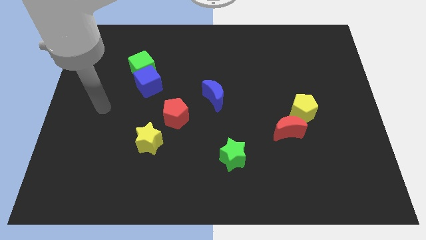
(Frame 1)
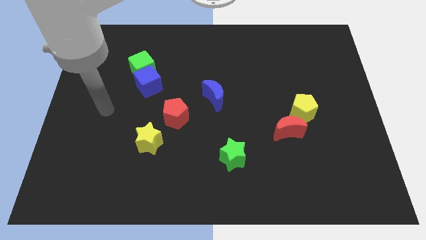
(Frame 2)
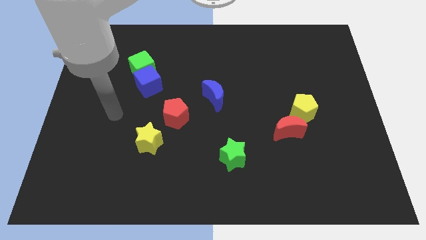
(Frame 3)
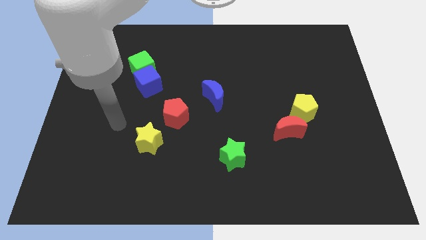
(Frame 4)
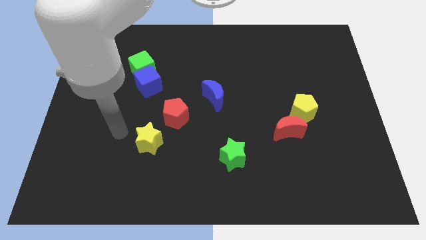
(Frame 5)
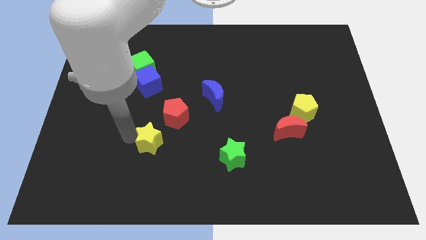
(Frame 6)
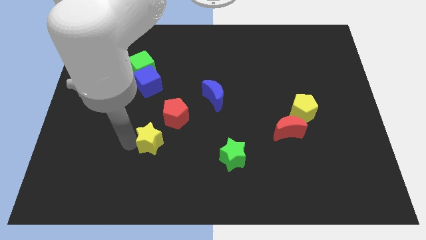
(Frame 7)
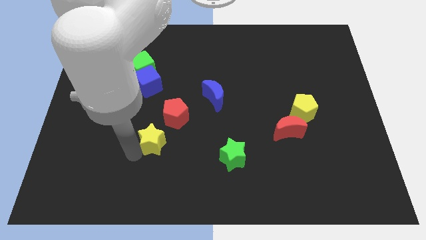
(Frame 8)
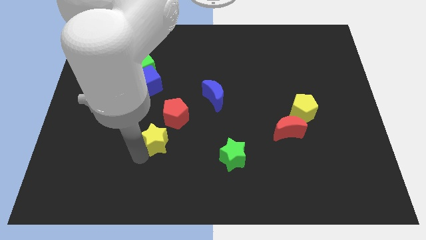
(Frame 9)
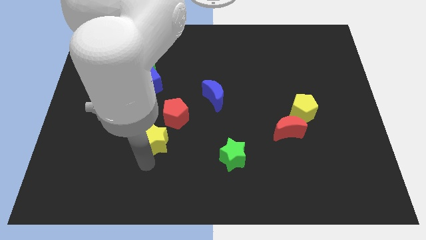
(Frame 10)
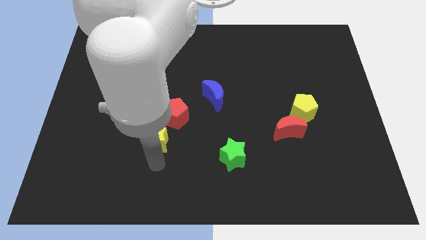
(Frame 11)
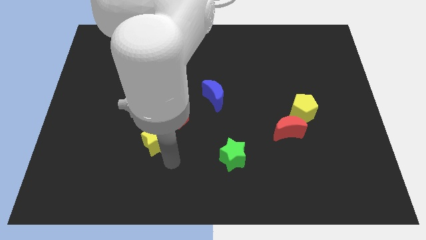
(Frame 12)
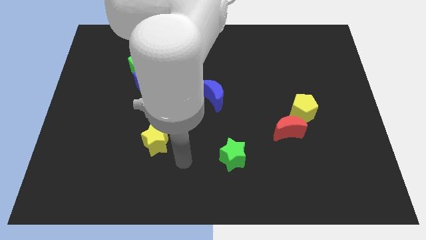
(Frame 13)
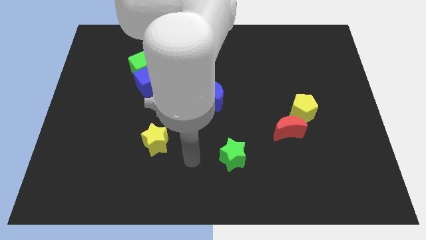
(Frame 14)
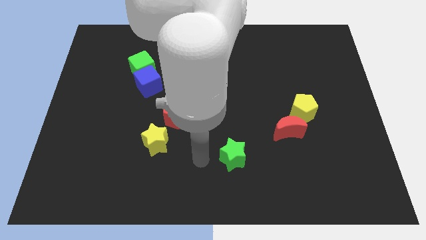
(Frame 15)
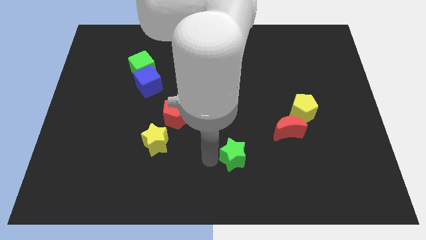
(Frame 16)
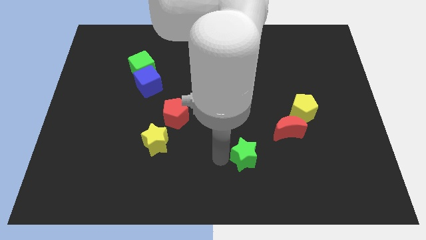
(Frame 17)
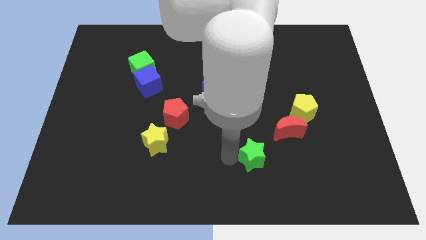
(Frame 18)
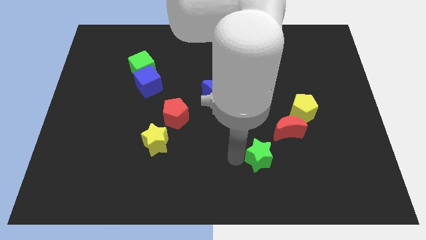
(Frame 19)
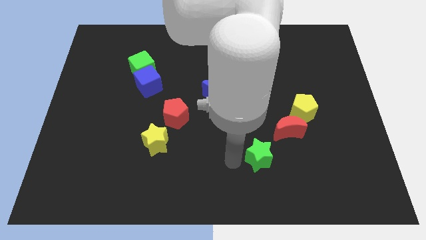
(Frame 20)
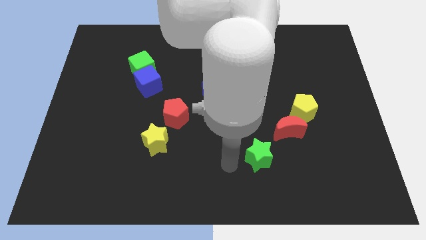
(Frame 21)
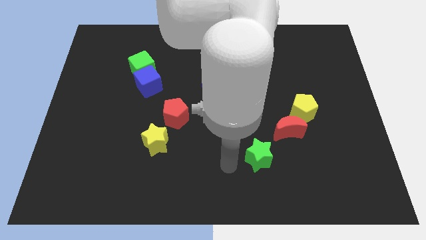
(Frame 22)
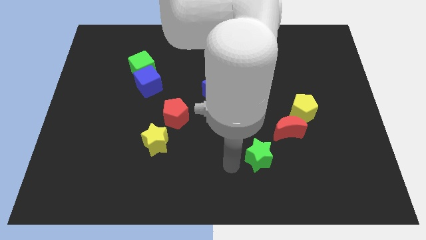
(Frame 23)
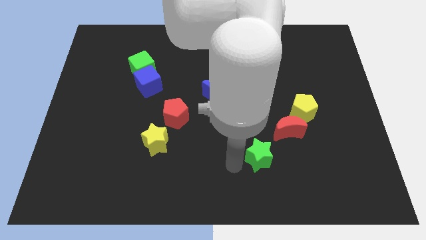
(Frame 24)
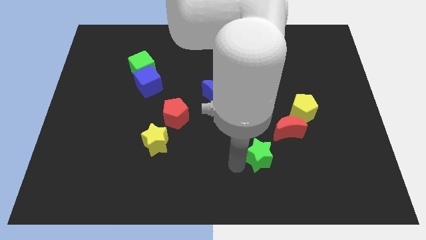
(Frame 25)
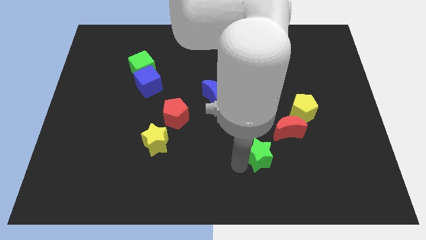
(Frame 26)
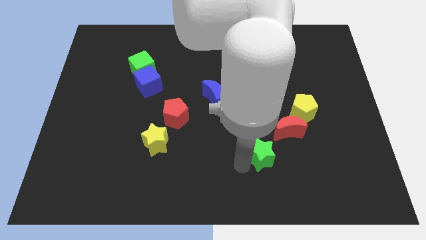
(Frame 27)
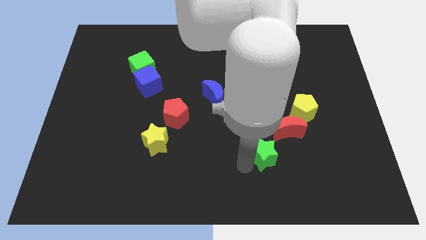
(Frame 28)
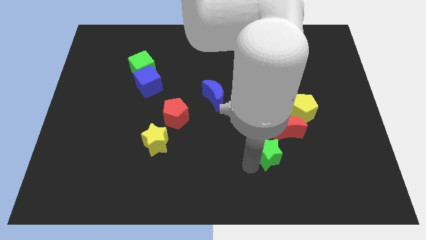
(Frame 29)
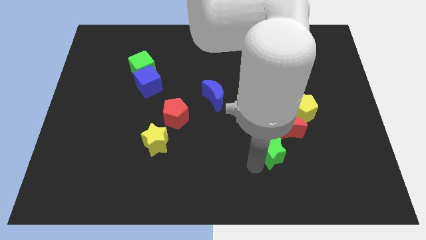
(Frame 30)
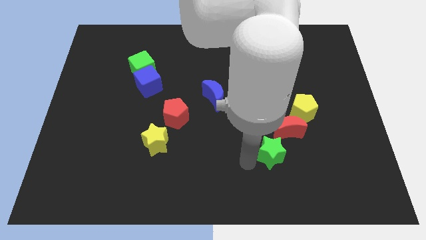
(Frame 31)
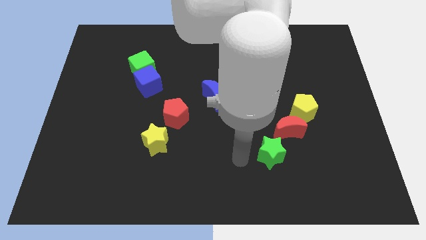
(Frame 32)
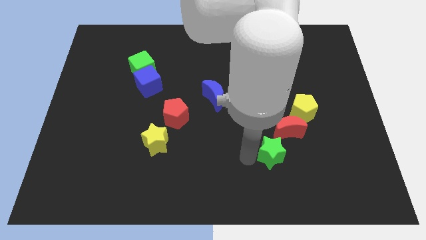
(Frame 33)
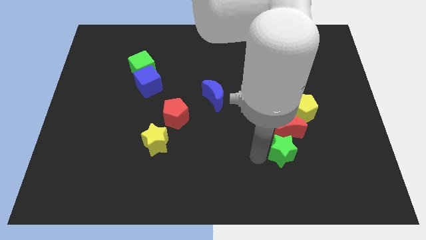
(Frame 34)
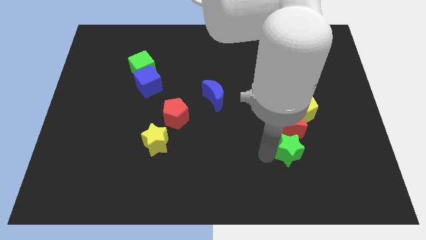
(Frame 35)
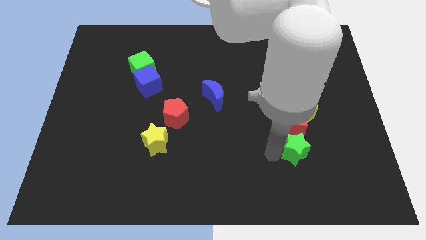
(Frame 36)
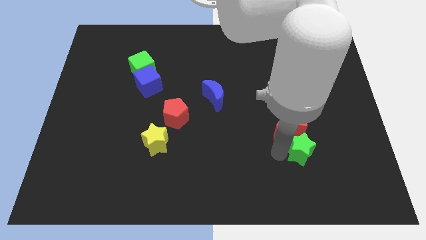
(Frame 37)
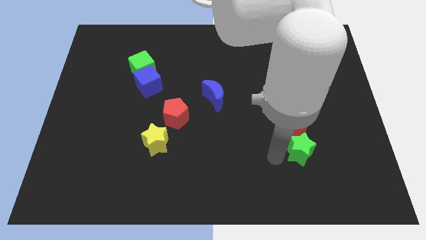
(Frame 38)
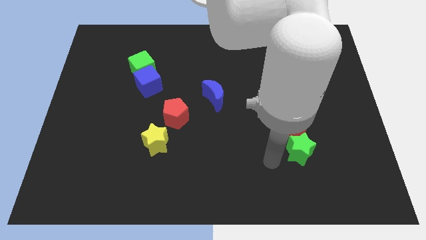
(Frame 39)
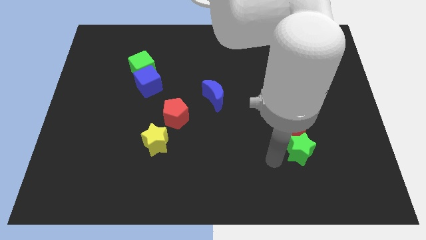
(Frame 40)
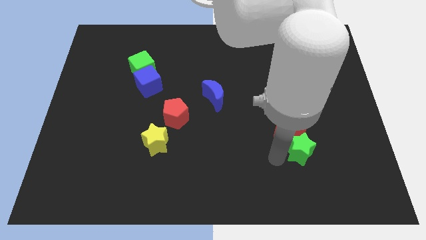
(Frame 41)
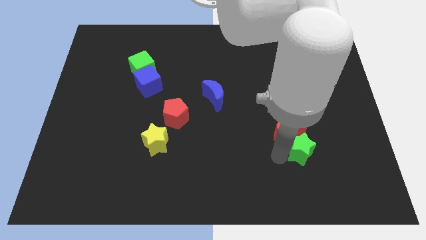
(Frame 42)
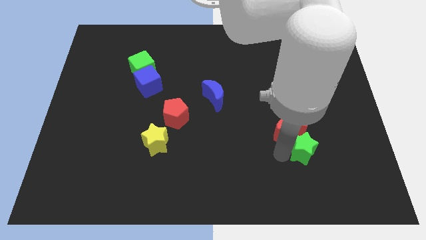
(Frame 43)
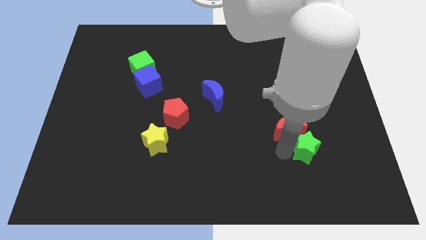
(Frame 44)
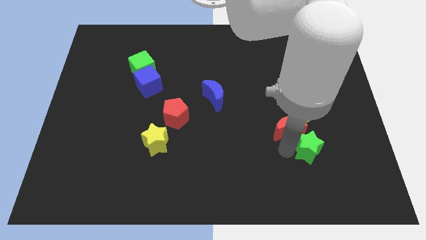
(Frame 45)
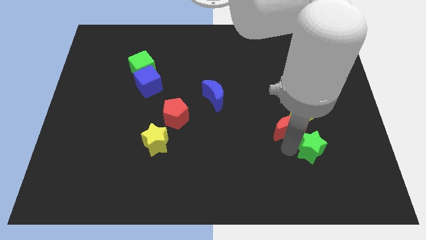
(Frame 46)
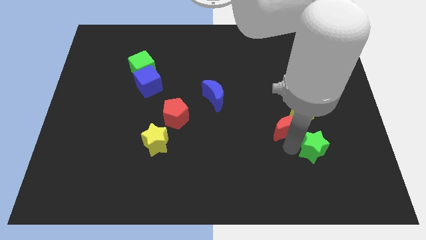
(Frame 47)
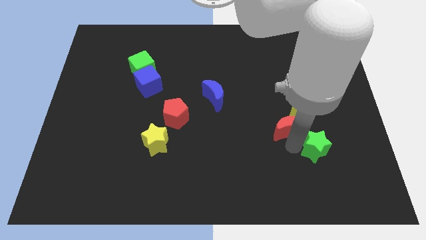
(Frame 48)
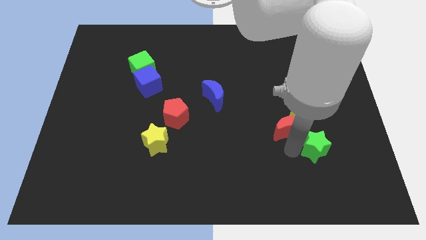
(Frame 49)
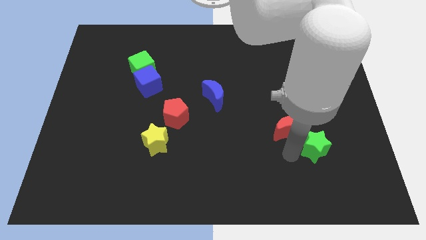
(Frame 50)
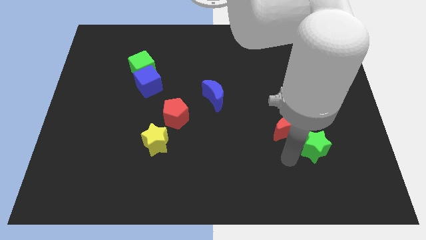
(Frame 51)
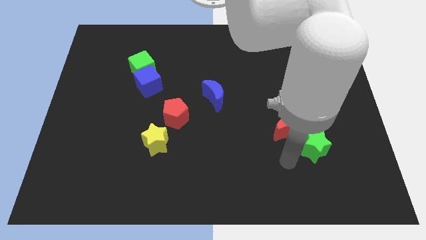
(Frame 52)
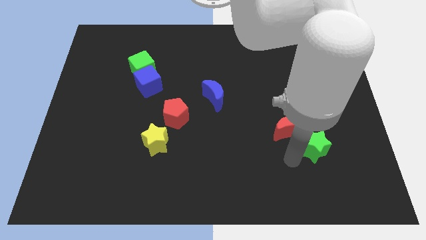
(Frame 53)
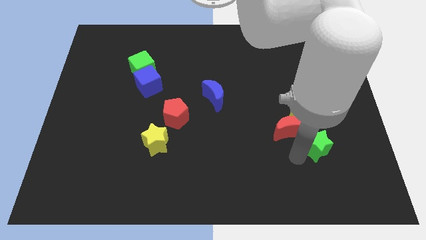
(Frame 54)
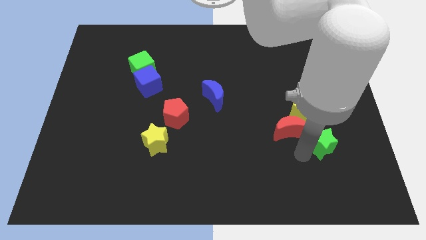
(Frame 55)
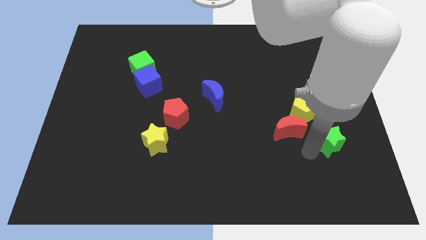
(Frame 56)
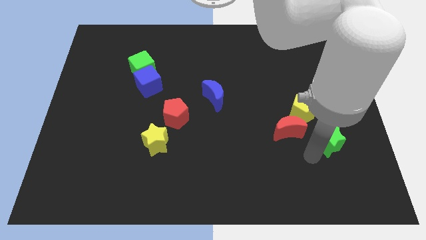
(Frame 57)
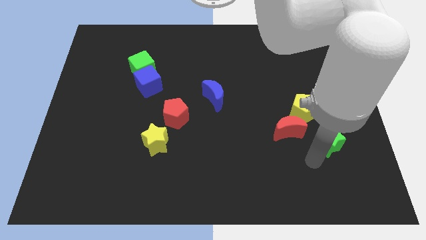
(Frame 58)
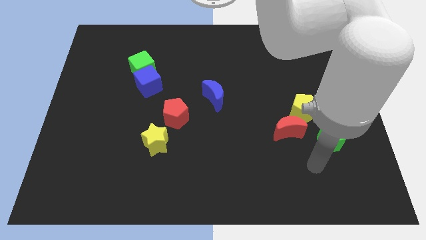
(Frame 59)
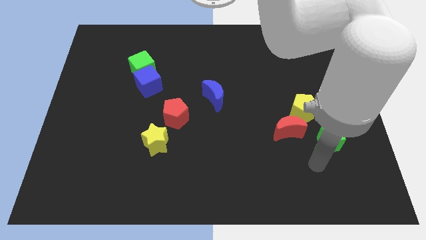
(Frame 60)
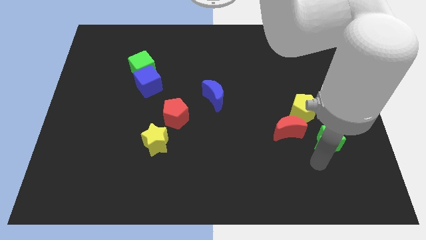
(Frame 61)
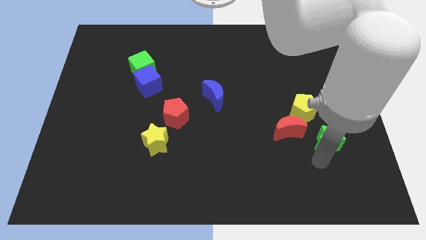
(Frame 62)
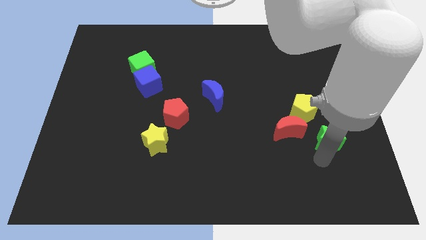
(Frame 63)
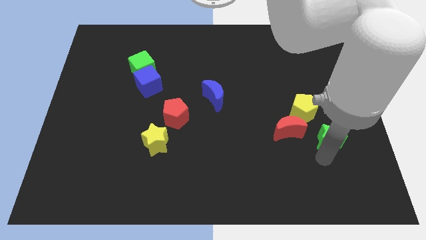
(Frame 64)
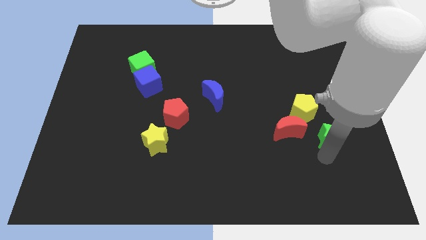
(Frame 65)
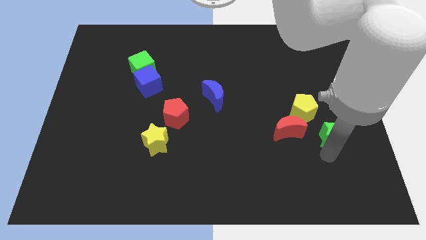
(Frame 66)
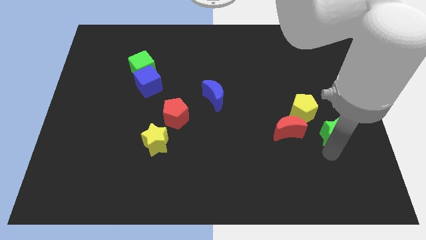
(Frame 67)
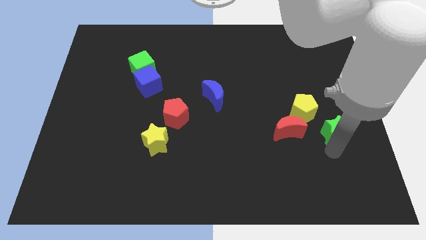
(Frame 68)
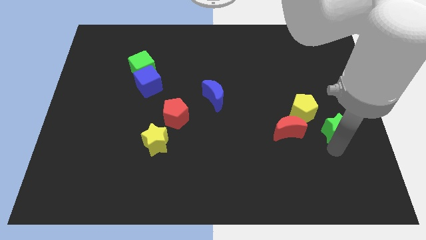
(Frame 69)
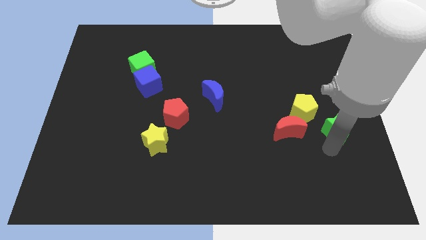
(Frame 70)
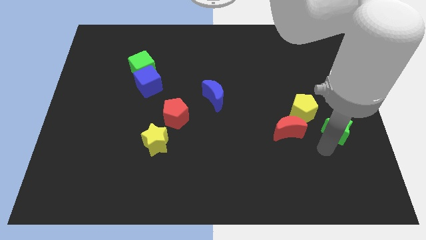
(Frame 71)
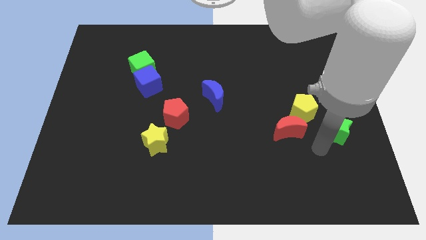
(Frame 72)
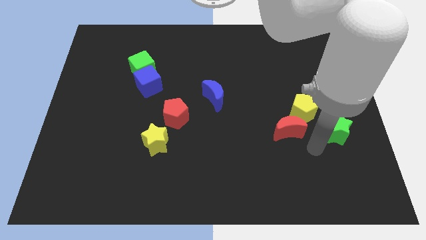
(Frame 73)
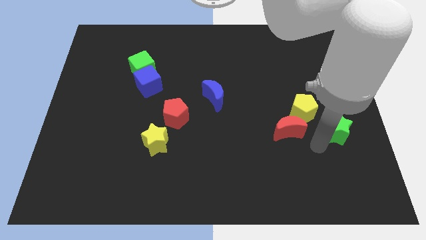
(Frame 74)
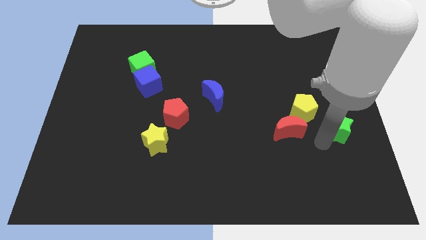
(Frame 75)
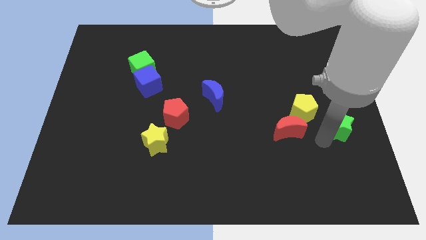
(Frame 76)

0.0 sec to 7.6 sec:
move the green star to the center right
